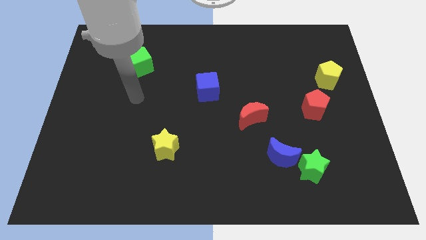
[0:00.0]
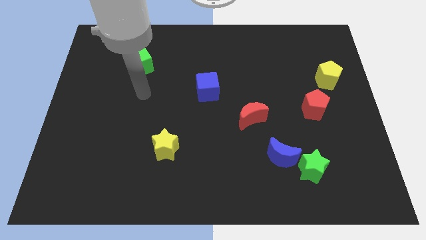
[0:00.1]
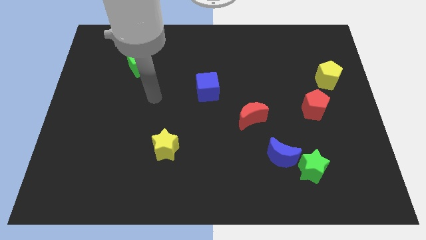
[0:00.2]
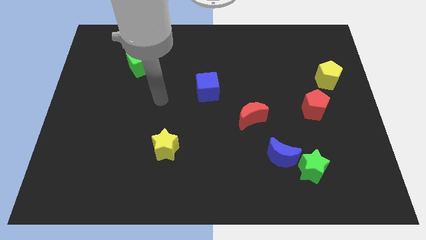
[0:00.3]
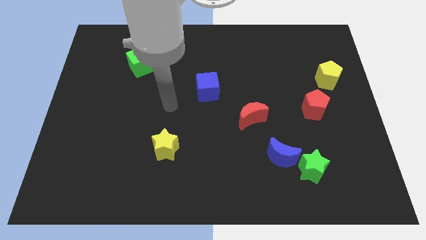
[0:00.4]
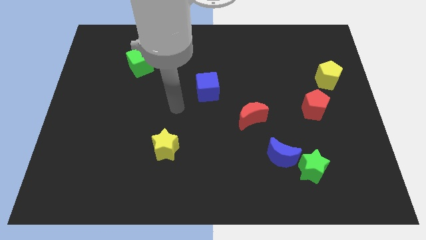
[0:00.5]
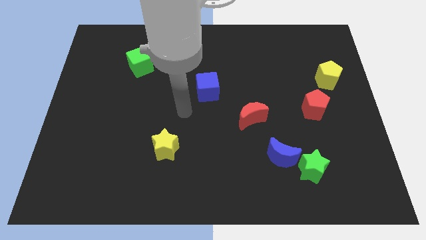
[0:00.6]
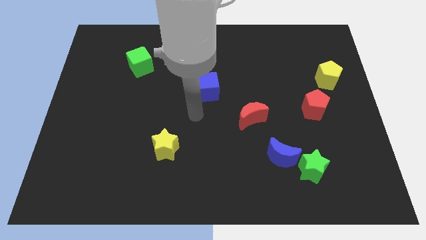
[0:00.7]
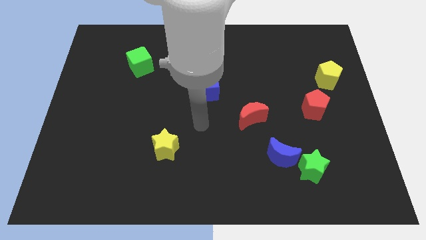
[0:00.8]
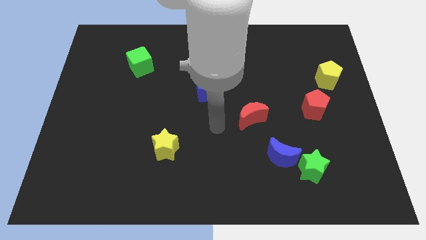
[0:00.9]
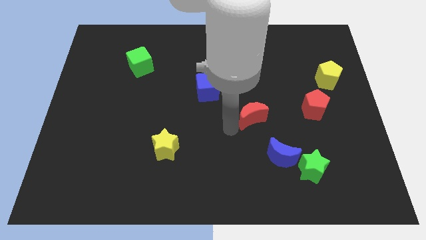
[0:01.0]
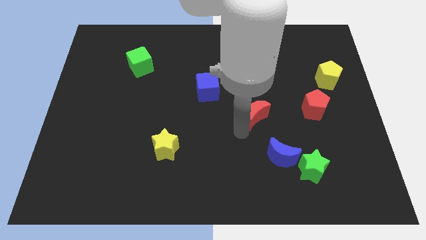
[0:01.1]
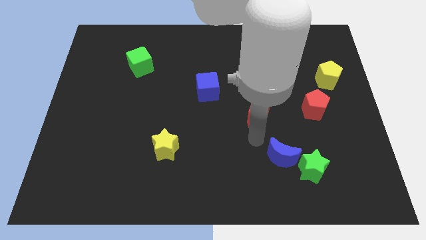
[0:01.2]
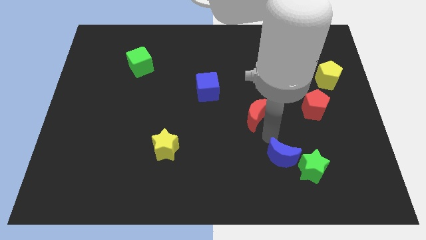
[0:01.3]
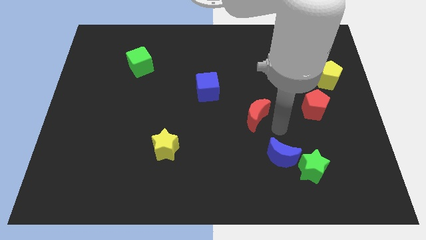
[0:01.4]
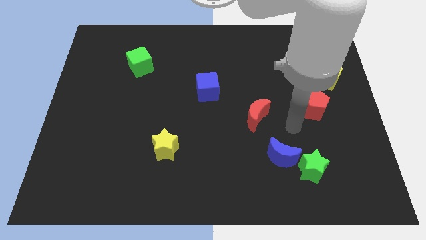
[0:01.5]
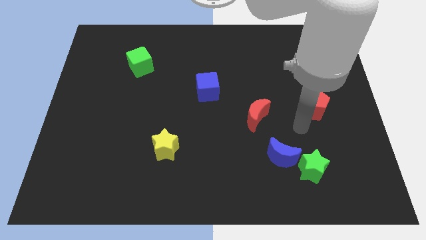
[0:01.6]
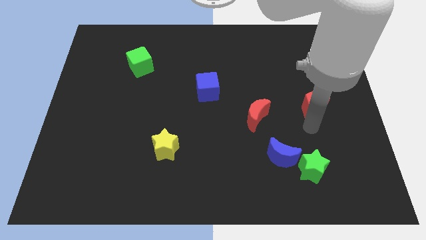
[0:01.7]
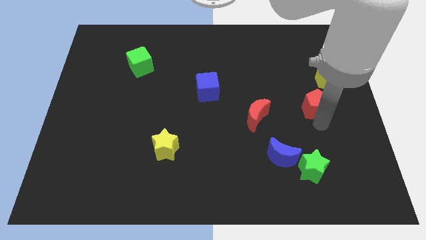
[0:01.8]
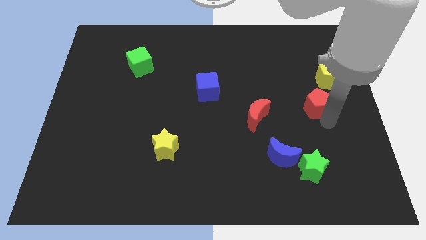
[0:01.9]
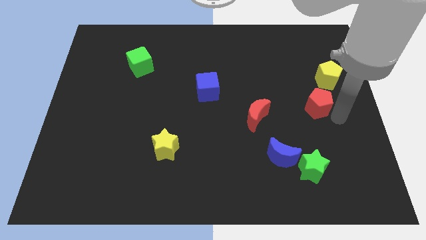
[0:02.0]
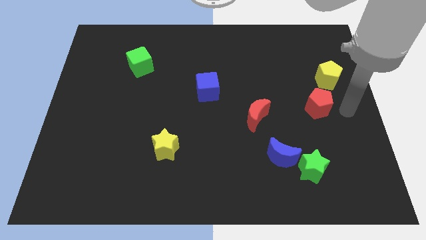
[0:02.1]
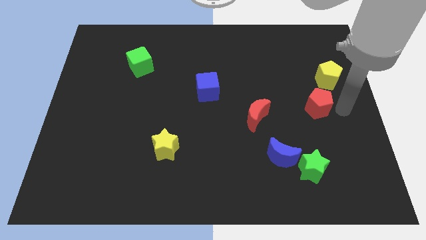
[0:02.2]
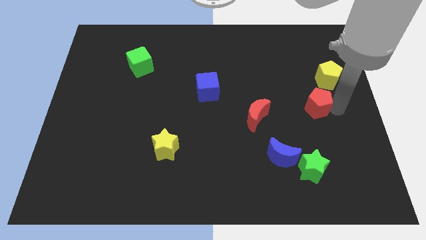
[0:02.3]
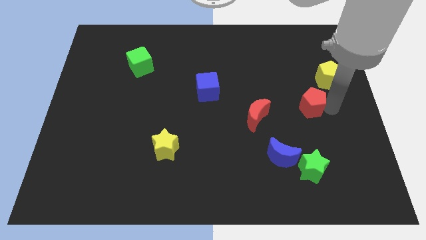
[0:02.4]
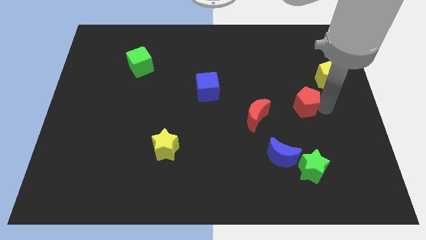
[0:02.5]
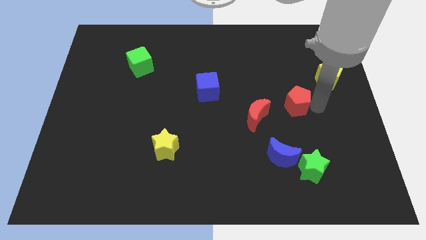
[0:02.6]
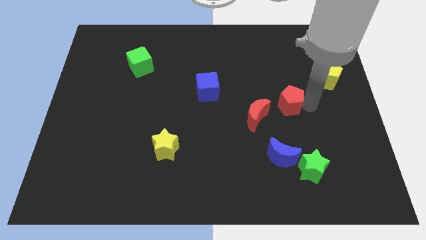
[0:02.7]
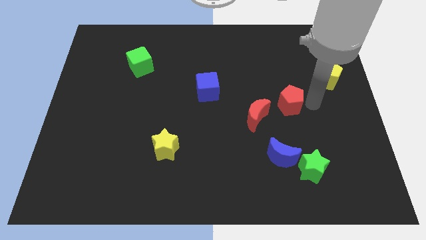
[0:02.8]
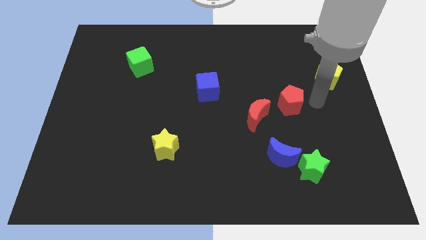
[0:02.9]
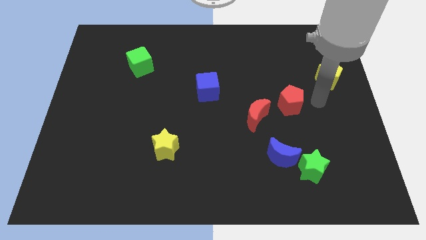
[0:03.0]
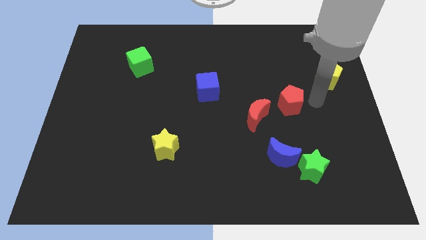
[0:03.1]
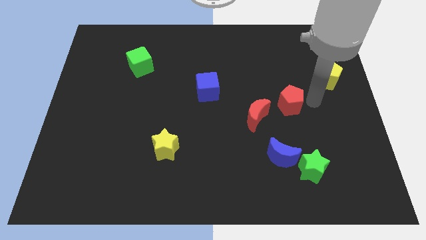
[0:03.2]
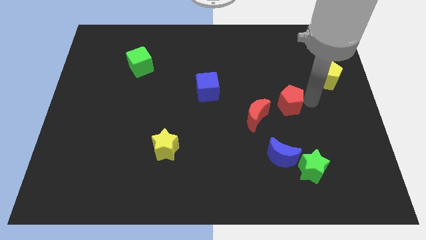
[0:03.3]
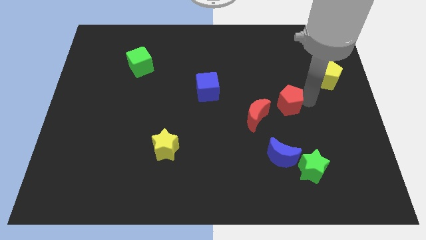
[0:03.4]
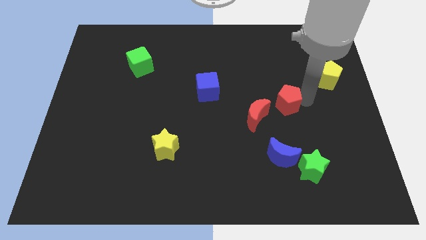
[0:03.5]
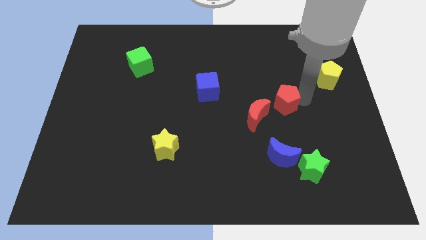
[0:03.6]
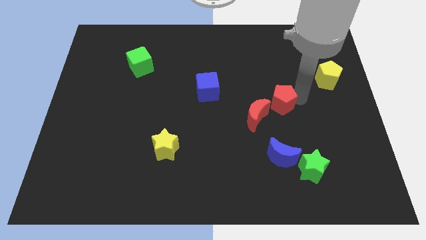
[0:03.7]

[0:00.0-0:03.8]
push the red pentagon slightly to the left

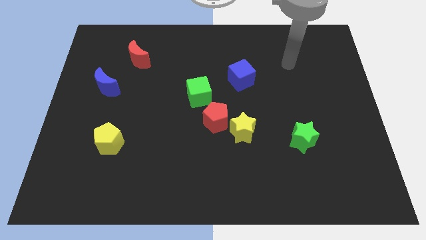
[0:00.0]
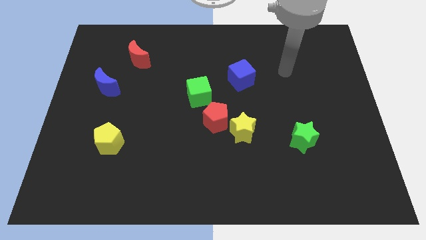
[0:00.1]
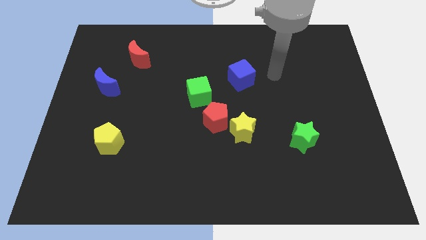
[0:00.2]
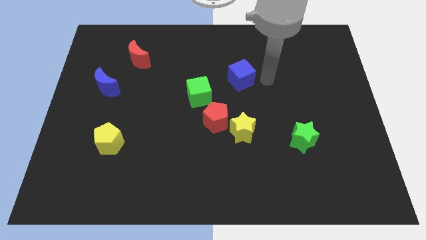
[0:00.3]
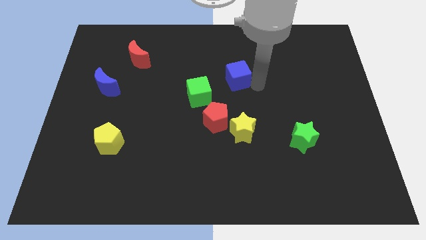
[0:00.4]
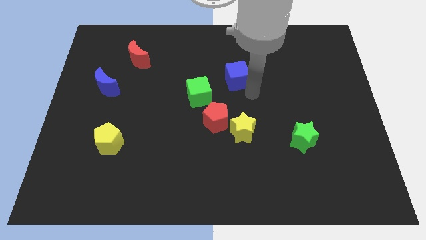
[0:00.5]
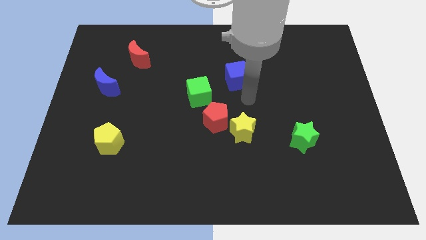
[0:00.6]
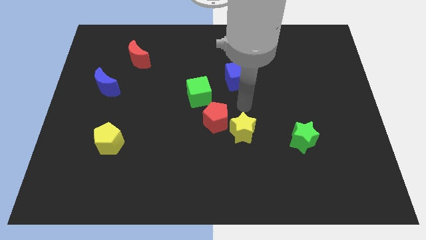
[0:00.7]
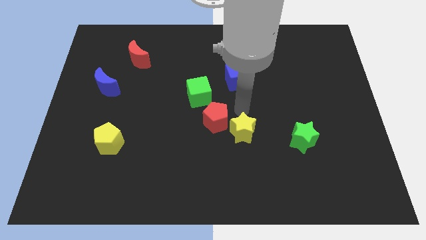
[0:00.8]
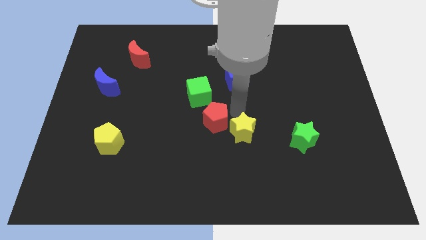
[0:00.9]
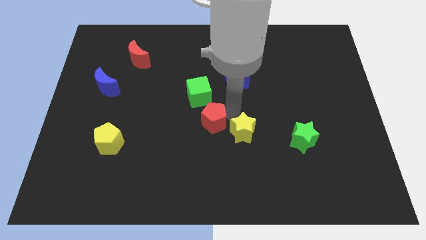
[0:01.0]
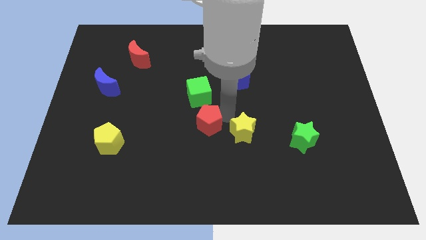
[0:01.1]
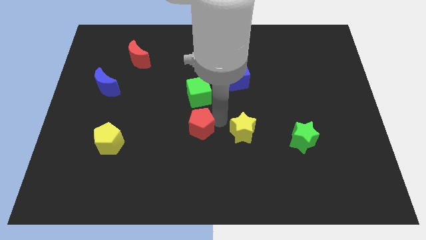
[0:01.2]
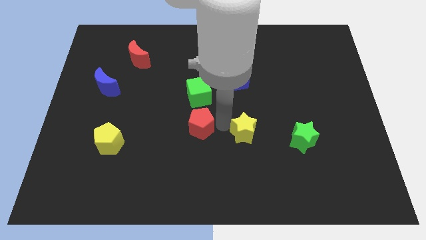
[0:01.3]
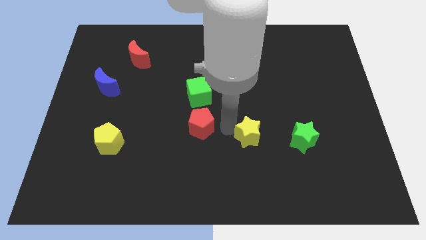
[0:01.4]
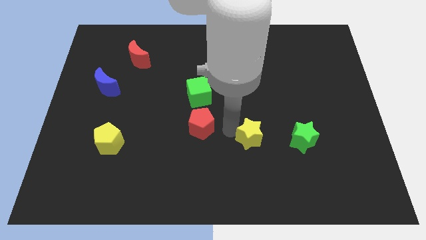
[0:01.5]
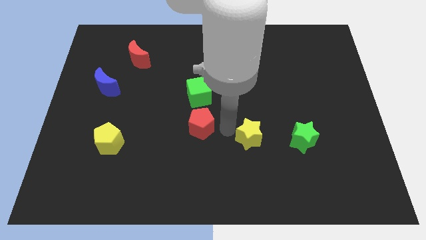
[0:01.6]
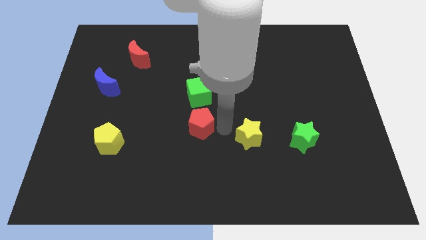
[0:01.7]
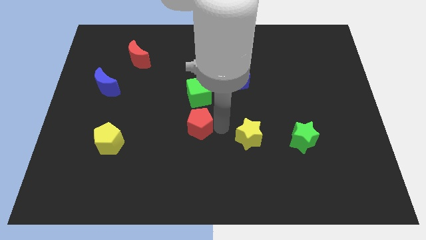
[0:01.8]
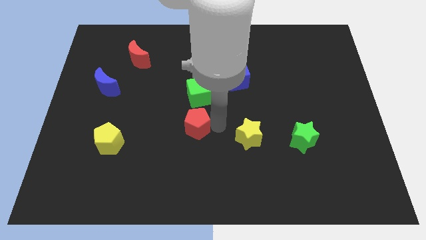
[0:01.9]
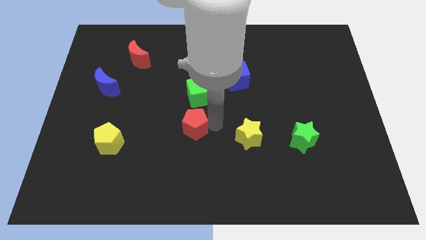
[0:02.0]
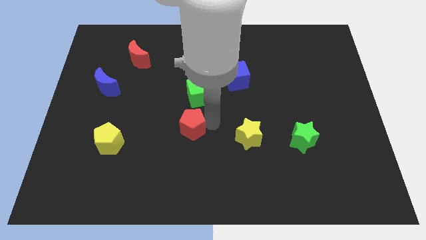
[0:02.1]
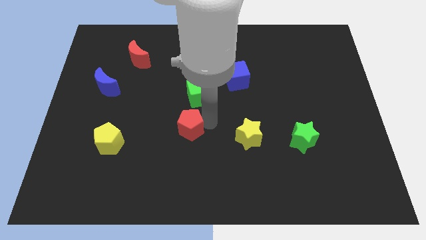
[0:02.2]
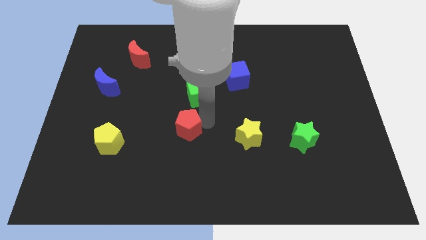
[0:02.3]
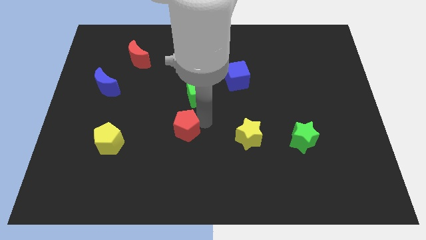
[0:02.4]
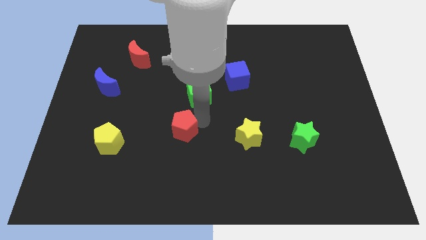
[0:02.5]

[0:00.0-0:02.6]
slightly move the red pentagon left

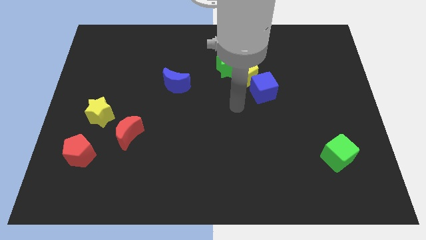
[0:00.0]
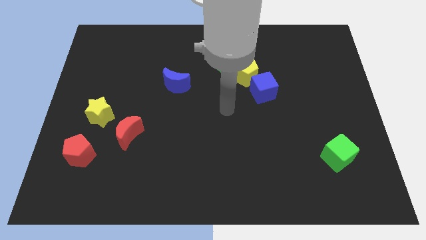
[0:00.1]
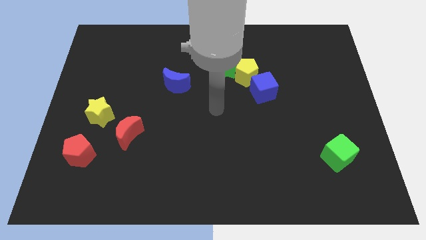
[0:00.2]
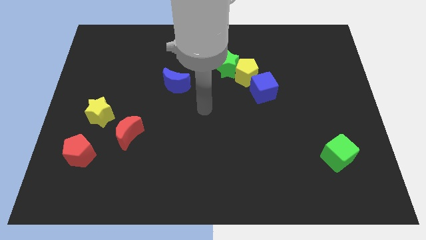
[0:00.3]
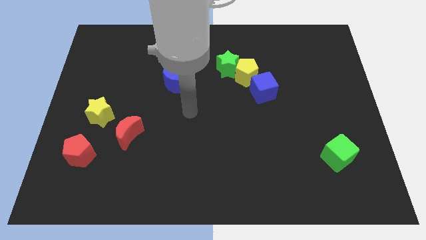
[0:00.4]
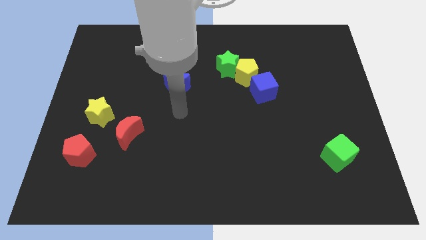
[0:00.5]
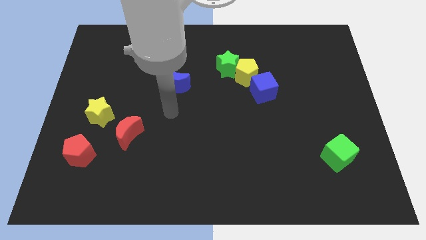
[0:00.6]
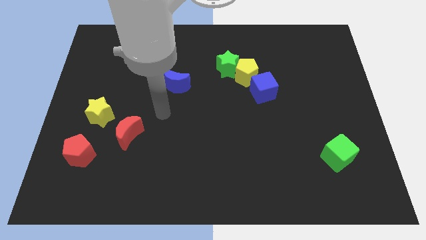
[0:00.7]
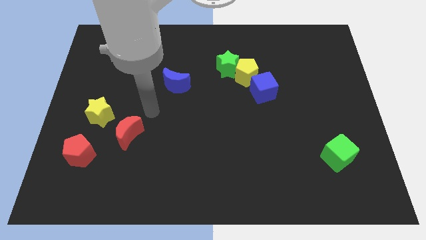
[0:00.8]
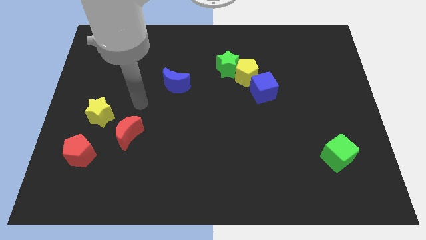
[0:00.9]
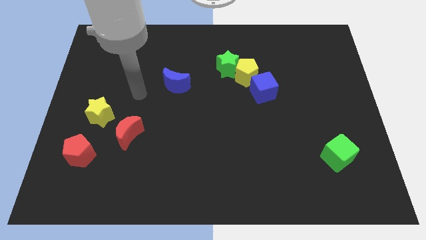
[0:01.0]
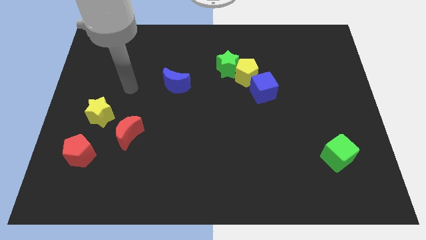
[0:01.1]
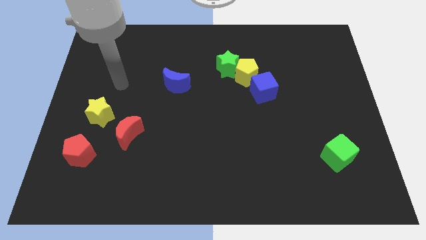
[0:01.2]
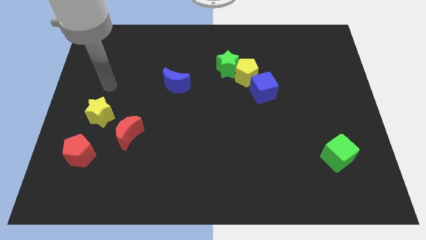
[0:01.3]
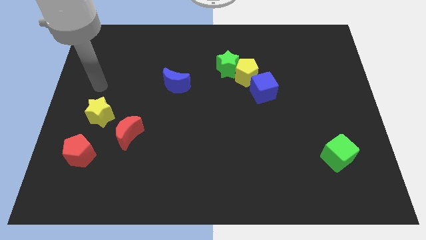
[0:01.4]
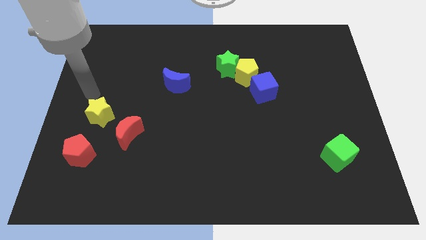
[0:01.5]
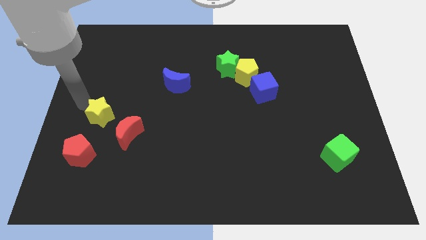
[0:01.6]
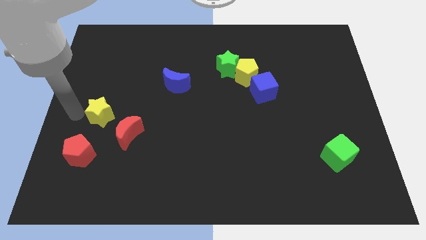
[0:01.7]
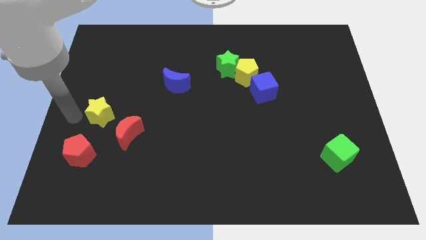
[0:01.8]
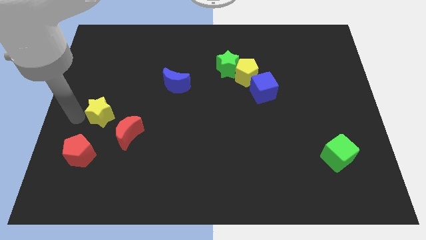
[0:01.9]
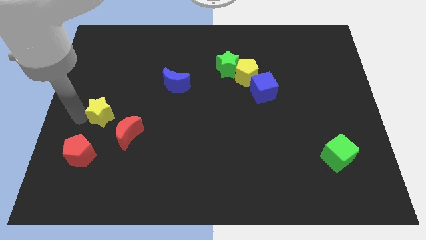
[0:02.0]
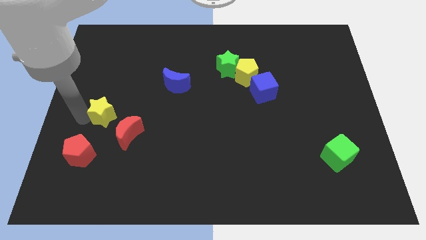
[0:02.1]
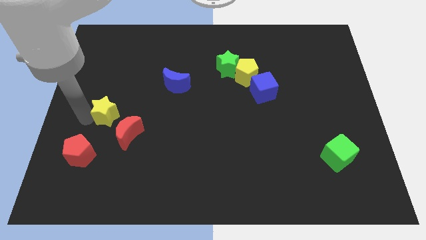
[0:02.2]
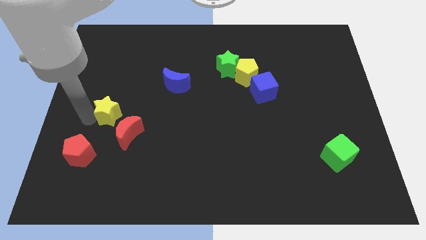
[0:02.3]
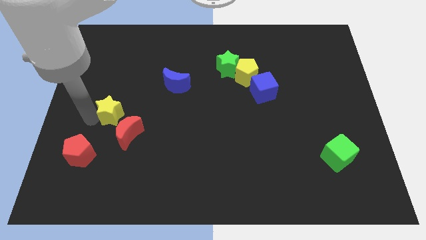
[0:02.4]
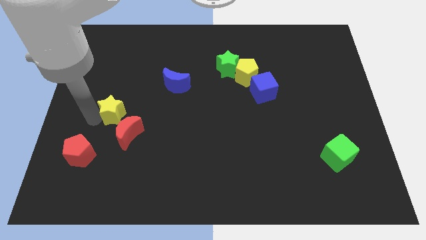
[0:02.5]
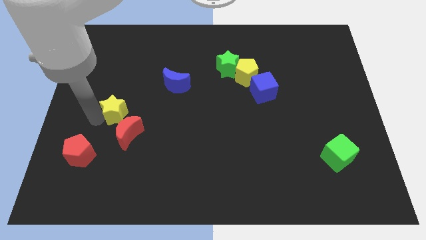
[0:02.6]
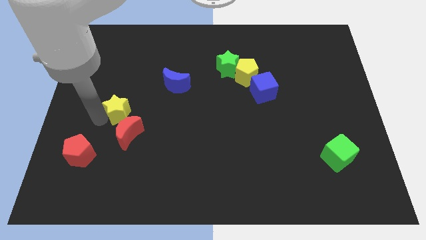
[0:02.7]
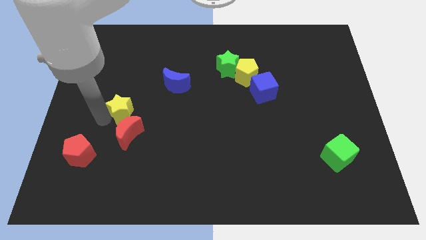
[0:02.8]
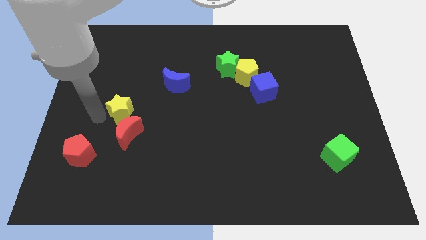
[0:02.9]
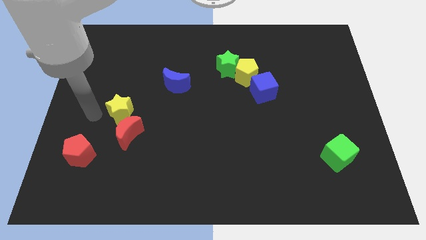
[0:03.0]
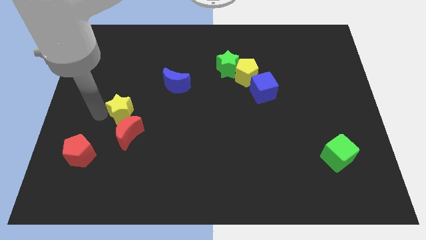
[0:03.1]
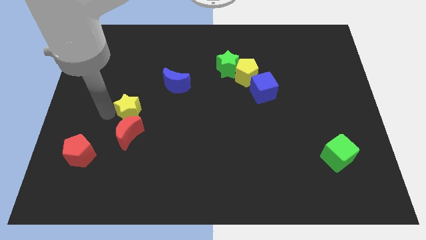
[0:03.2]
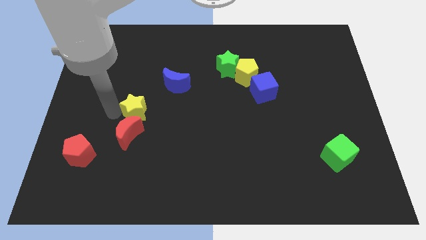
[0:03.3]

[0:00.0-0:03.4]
push the yellow star to the right somewhat
